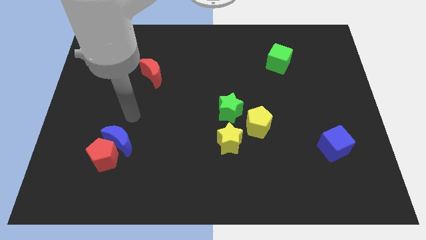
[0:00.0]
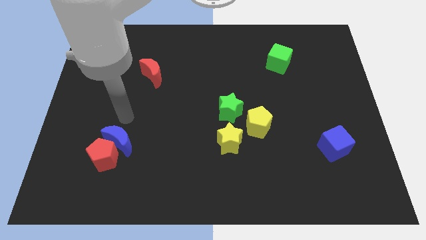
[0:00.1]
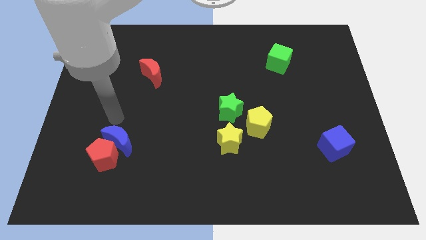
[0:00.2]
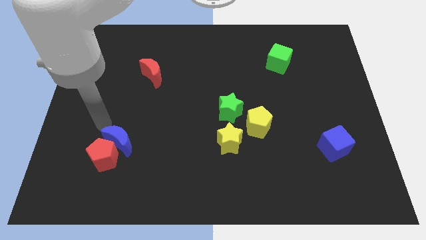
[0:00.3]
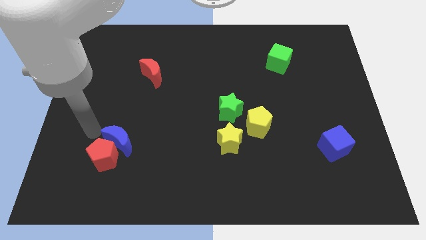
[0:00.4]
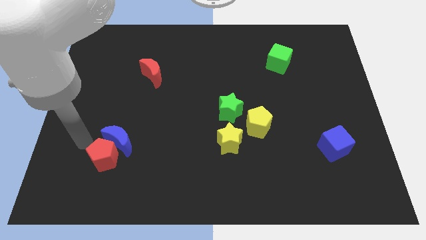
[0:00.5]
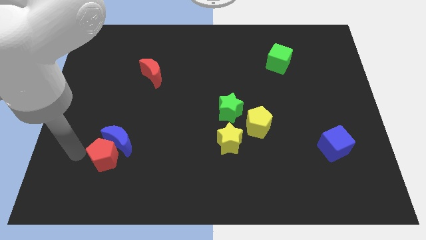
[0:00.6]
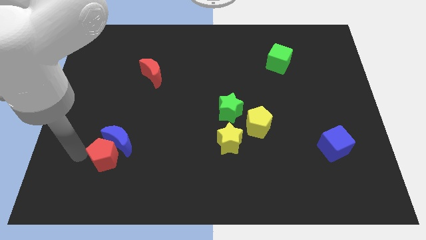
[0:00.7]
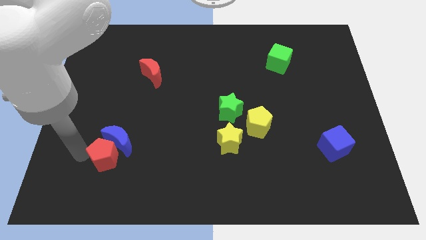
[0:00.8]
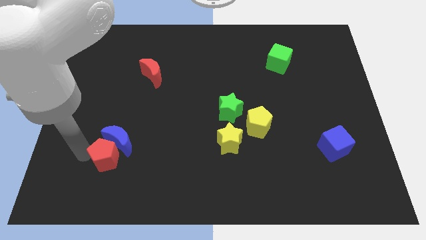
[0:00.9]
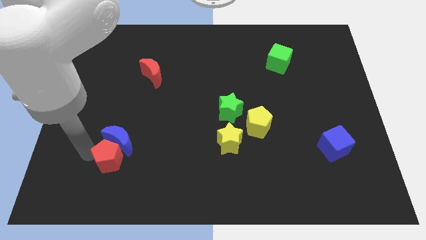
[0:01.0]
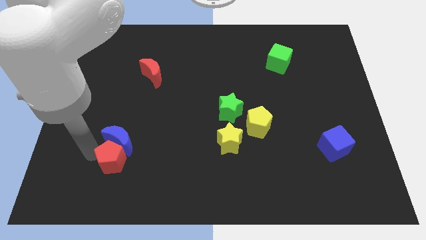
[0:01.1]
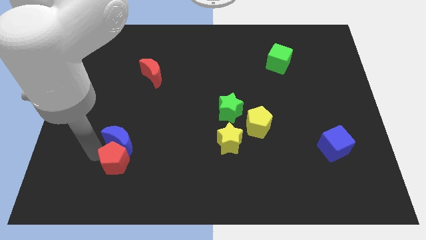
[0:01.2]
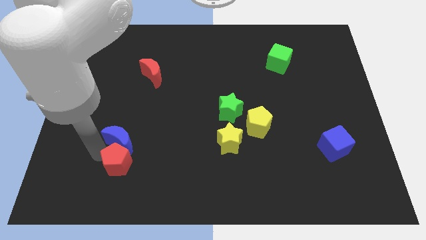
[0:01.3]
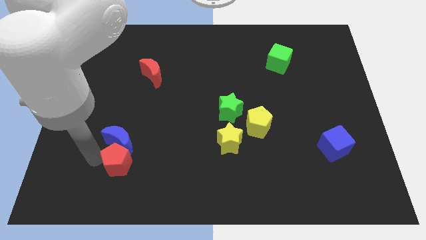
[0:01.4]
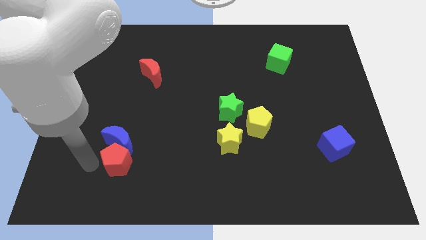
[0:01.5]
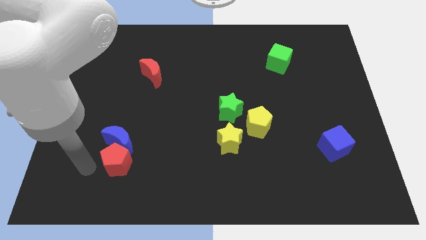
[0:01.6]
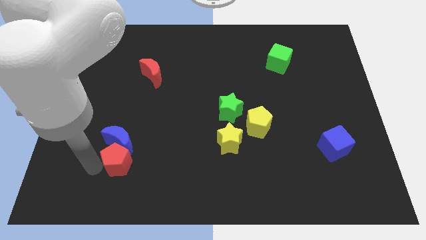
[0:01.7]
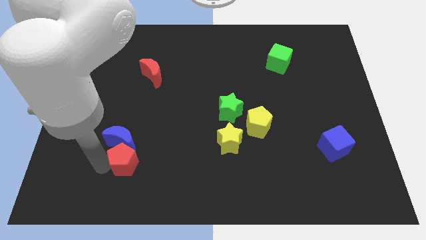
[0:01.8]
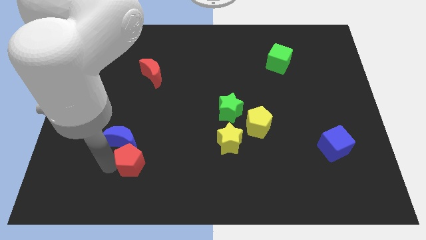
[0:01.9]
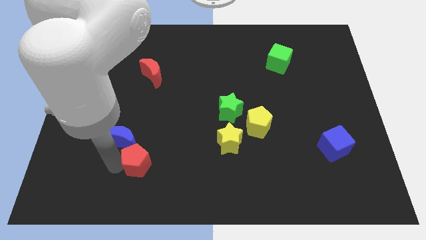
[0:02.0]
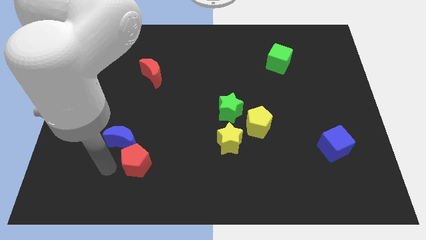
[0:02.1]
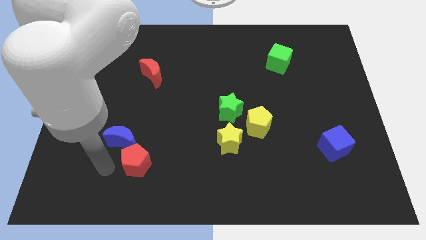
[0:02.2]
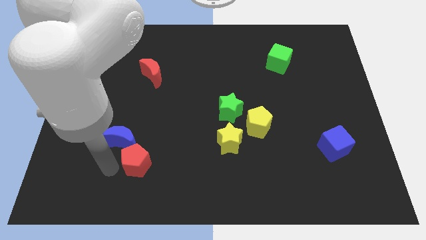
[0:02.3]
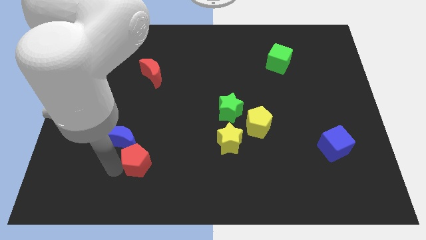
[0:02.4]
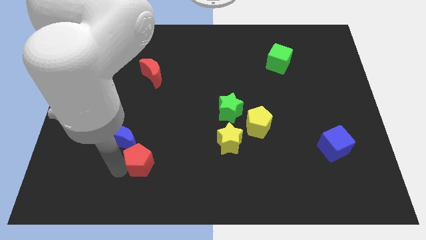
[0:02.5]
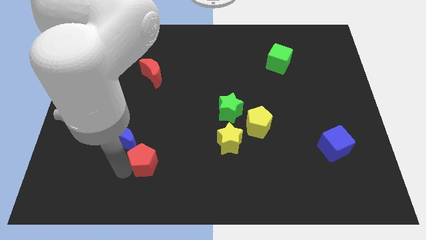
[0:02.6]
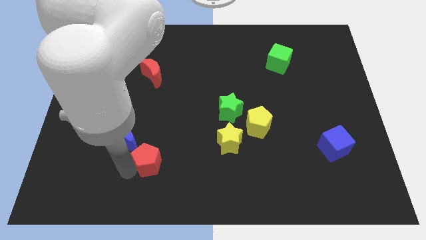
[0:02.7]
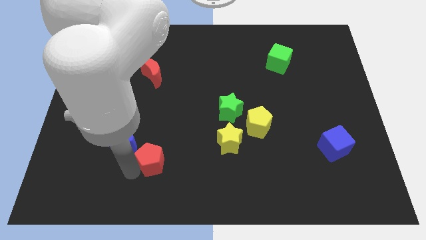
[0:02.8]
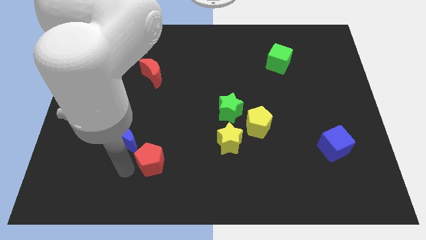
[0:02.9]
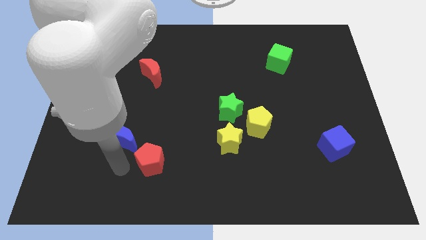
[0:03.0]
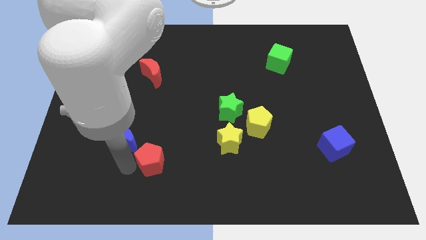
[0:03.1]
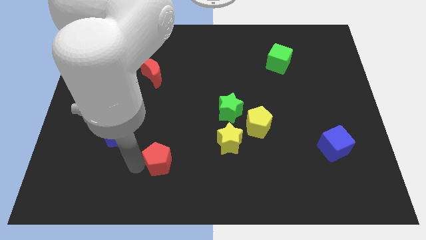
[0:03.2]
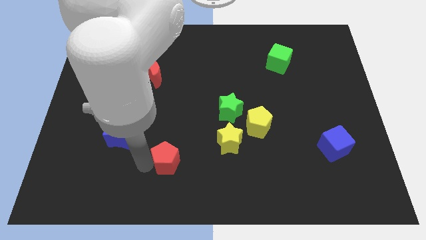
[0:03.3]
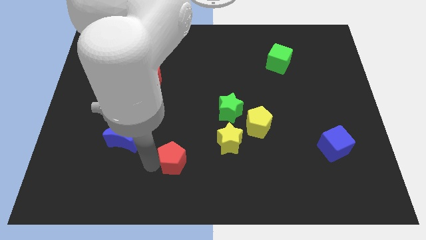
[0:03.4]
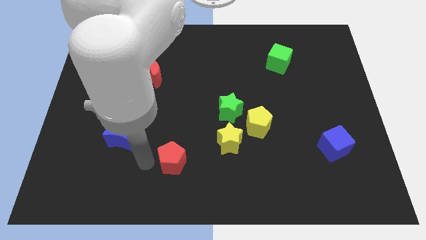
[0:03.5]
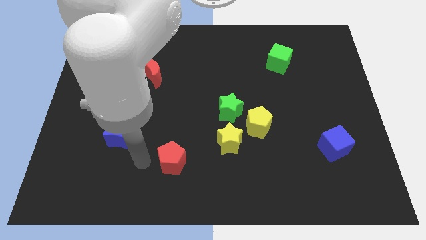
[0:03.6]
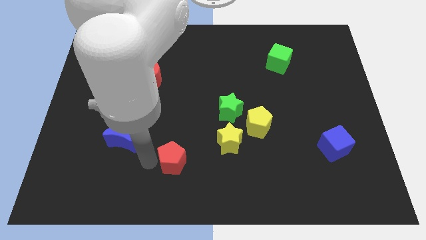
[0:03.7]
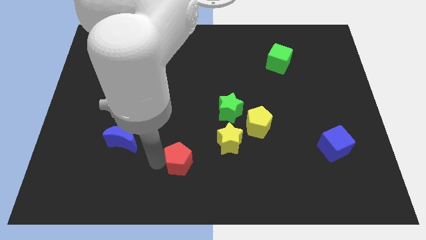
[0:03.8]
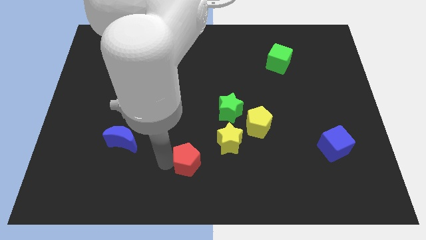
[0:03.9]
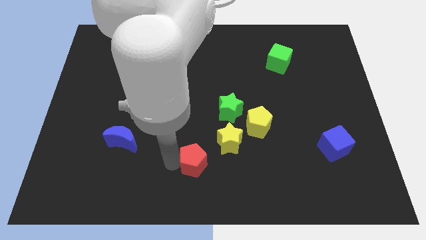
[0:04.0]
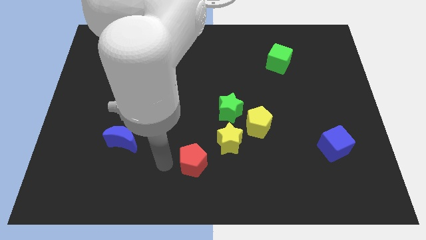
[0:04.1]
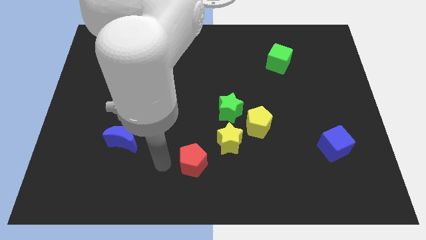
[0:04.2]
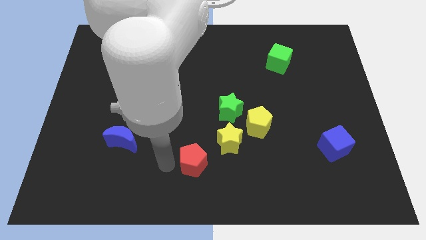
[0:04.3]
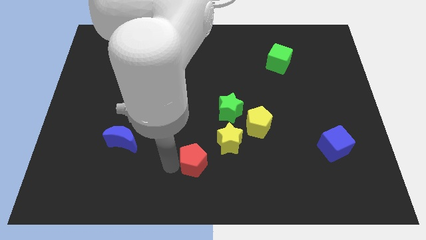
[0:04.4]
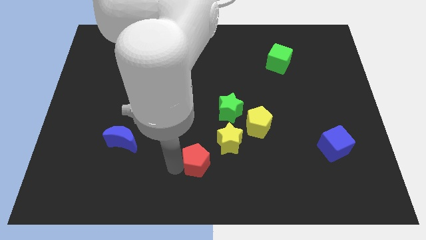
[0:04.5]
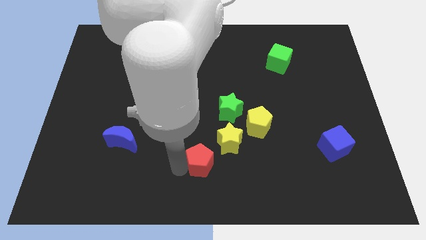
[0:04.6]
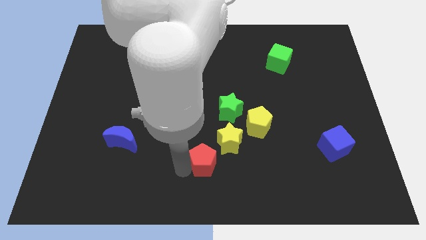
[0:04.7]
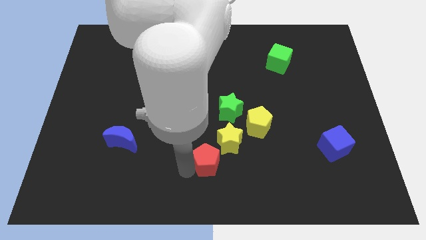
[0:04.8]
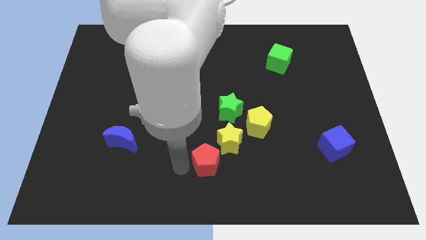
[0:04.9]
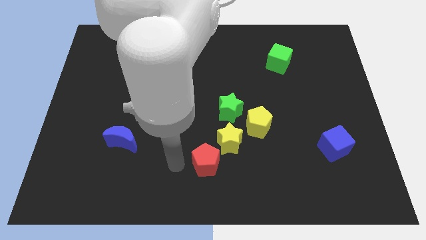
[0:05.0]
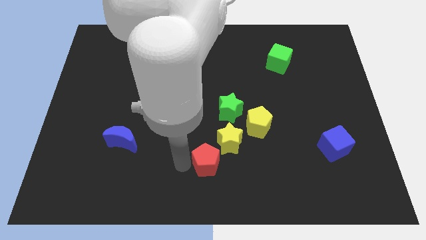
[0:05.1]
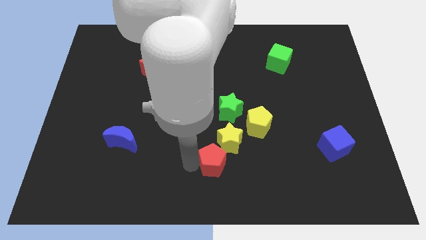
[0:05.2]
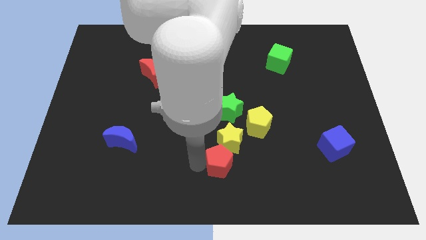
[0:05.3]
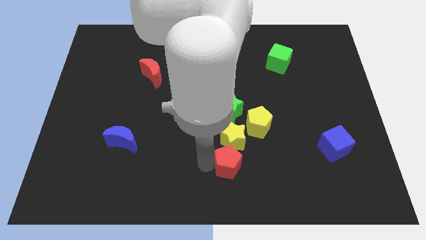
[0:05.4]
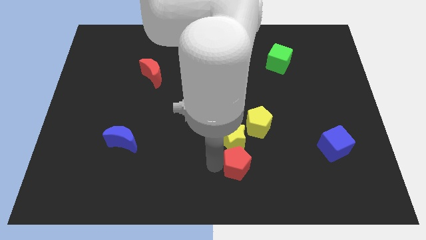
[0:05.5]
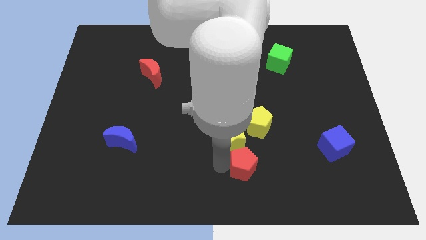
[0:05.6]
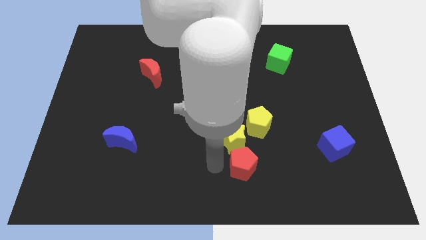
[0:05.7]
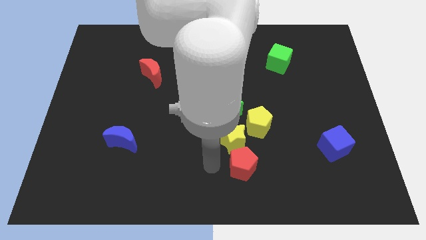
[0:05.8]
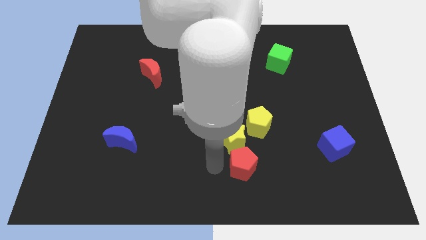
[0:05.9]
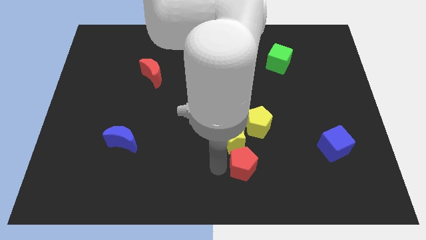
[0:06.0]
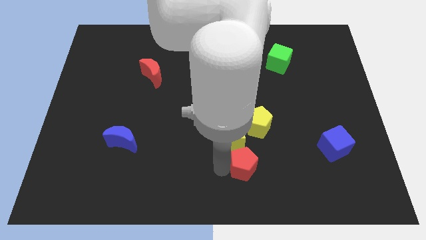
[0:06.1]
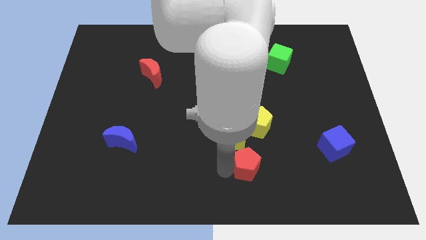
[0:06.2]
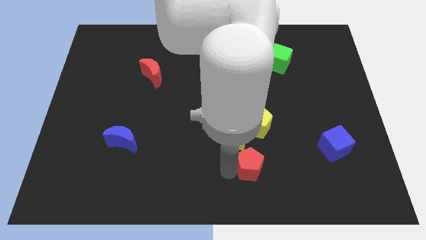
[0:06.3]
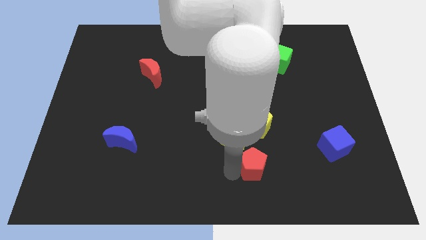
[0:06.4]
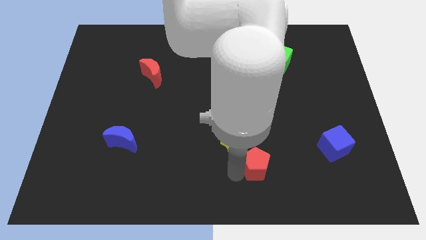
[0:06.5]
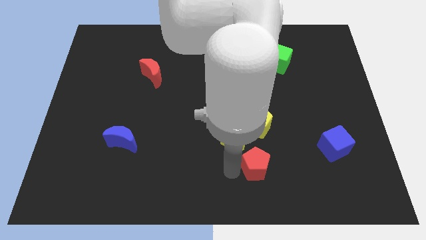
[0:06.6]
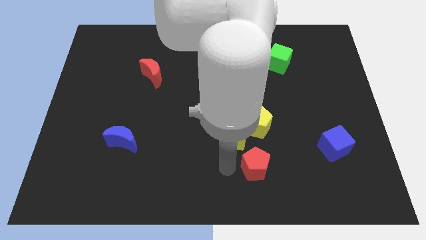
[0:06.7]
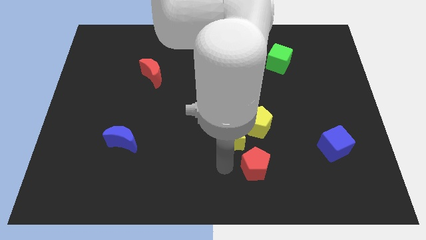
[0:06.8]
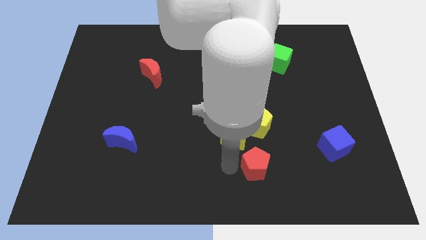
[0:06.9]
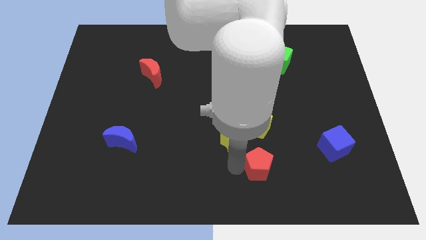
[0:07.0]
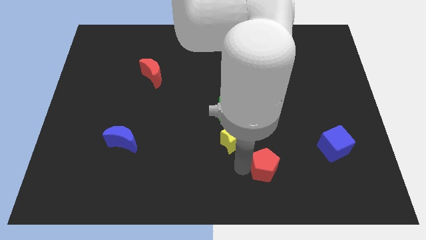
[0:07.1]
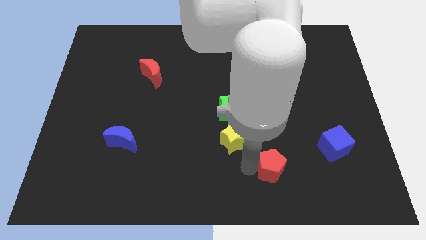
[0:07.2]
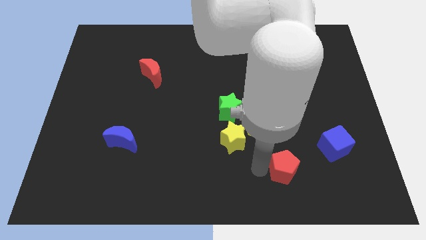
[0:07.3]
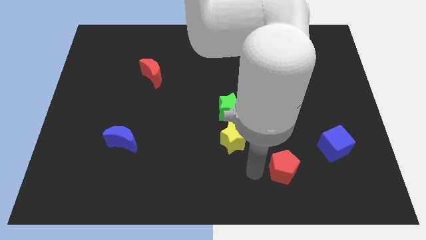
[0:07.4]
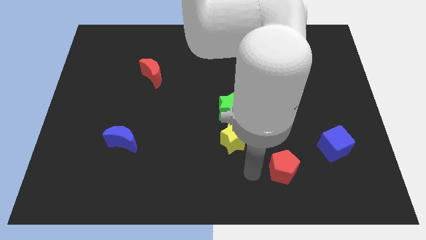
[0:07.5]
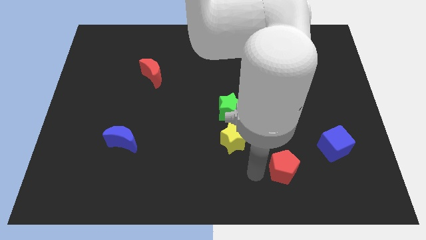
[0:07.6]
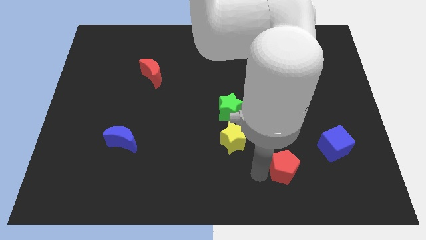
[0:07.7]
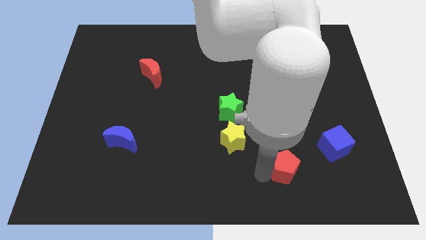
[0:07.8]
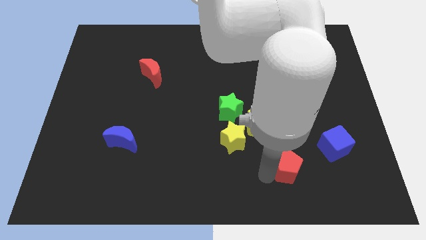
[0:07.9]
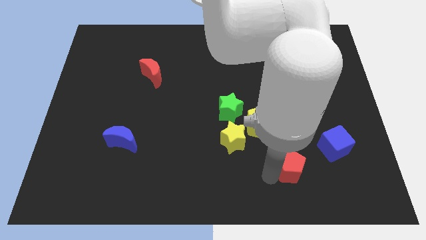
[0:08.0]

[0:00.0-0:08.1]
push the red pentagon to the bottom left side of the blue cube
